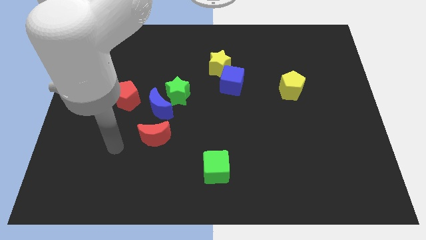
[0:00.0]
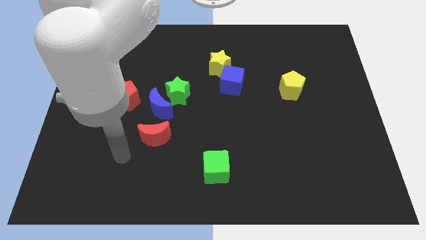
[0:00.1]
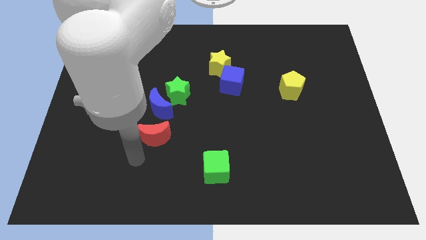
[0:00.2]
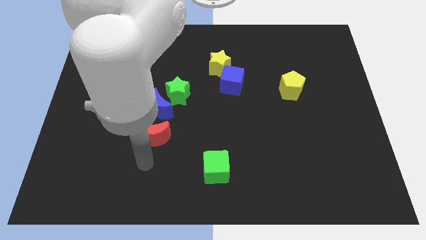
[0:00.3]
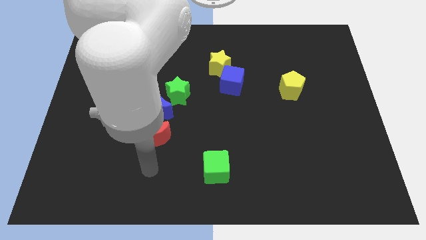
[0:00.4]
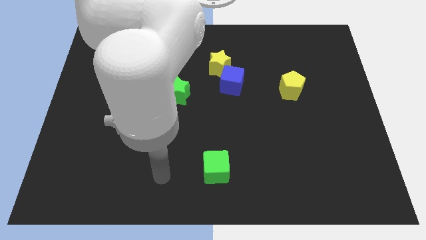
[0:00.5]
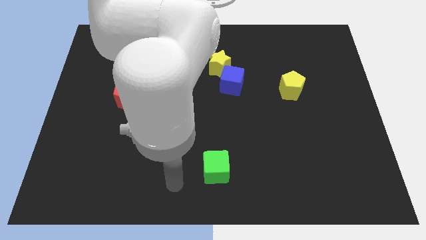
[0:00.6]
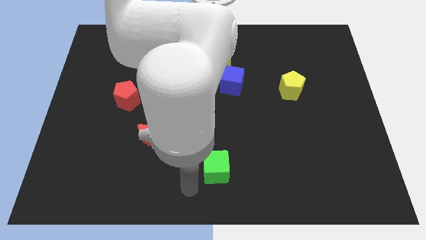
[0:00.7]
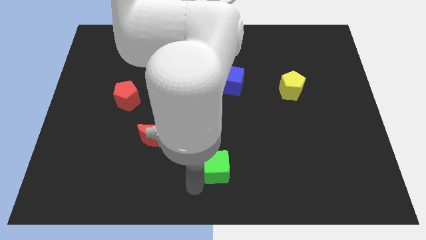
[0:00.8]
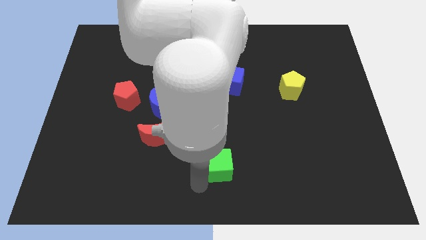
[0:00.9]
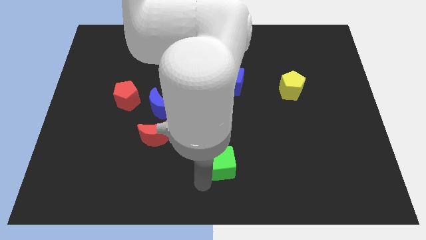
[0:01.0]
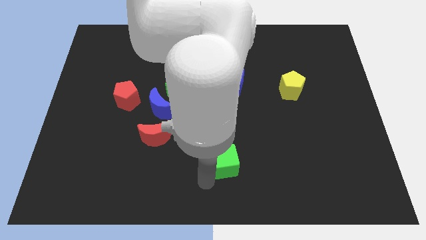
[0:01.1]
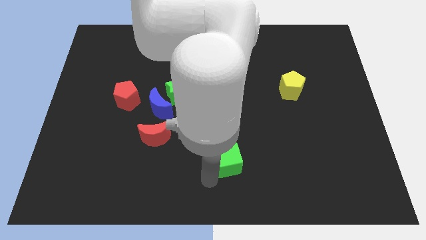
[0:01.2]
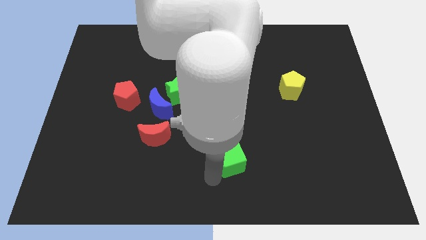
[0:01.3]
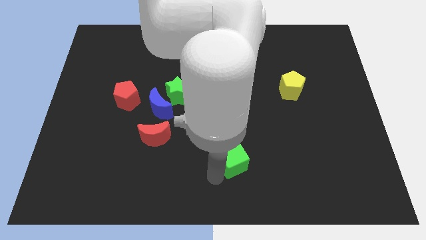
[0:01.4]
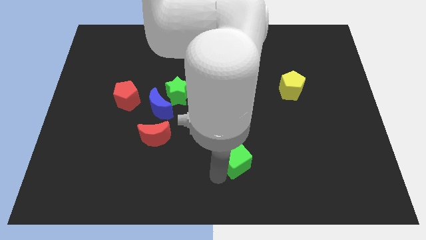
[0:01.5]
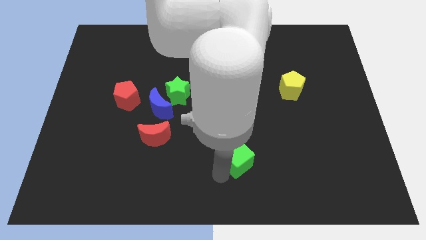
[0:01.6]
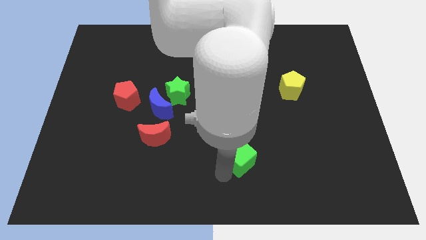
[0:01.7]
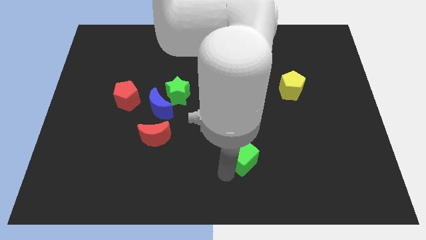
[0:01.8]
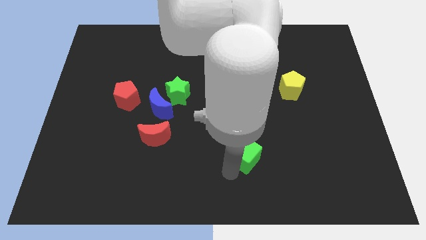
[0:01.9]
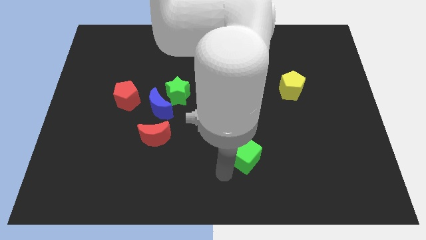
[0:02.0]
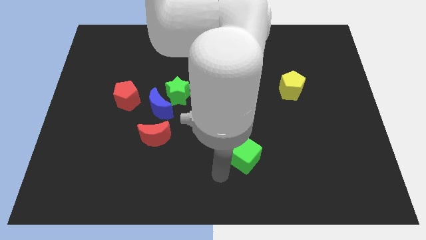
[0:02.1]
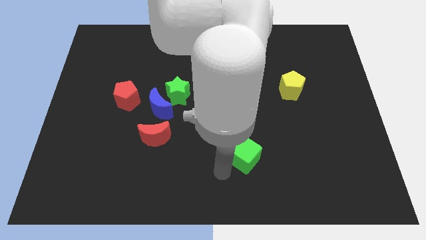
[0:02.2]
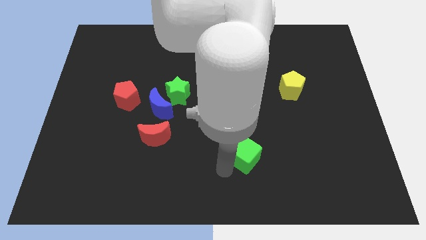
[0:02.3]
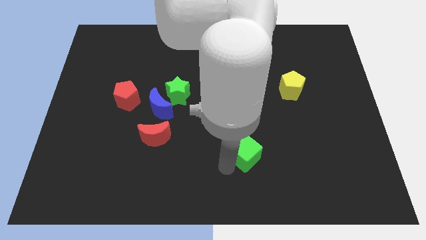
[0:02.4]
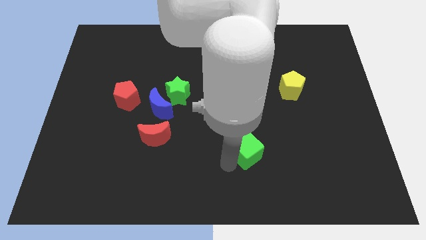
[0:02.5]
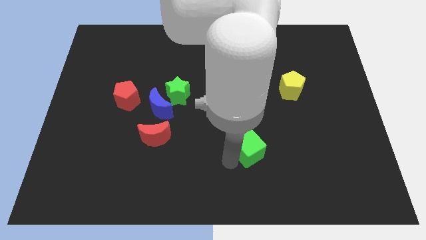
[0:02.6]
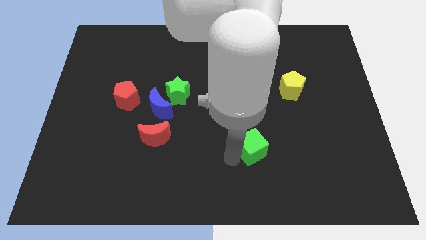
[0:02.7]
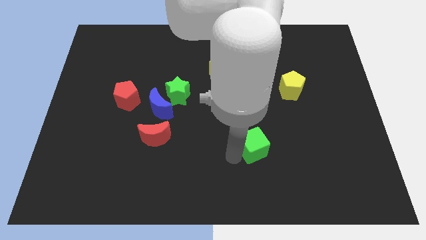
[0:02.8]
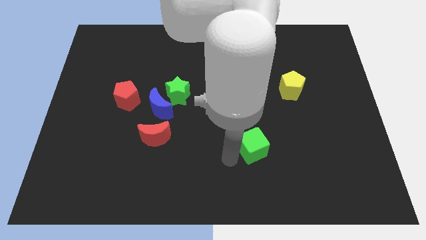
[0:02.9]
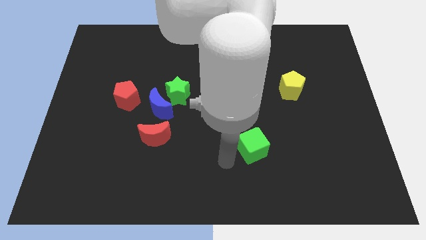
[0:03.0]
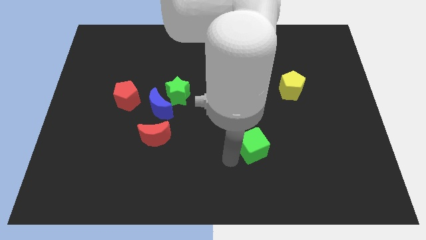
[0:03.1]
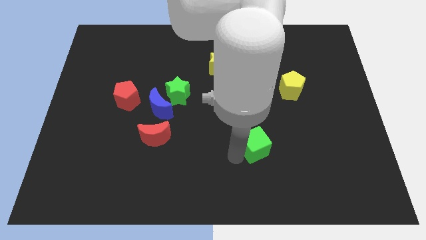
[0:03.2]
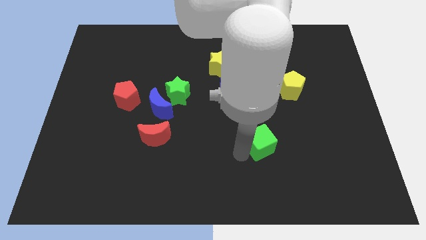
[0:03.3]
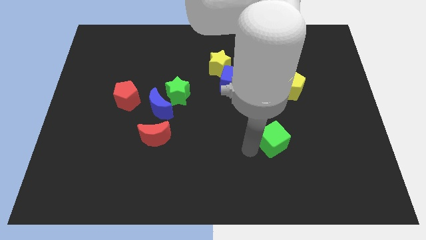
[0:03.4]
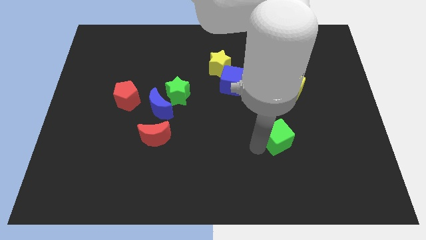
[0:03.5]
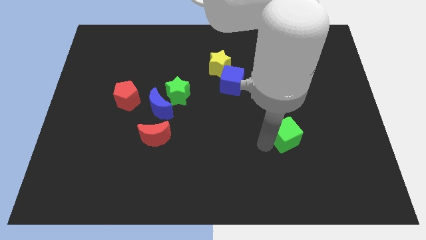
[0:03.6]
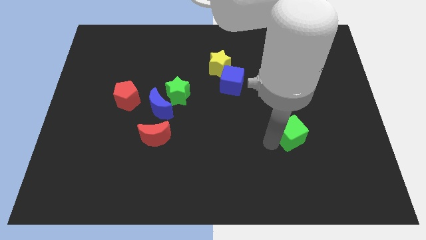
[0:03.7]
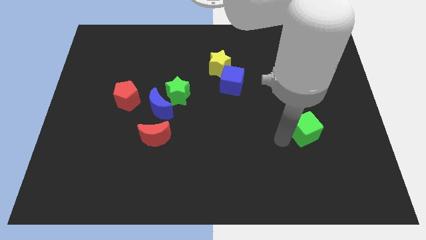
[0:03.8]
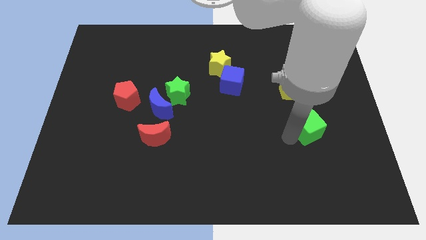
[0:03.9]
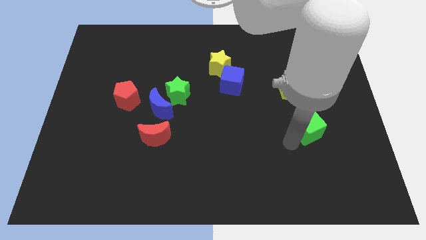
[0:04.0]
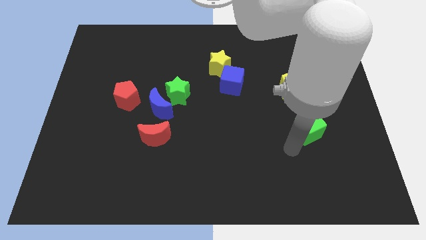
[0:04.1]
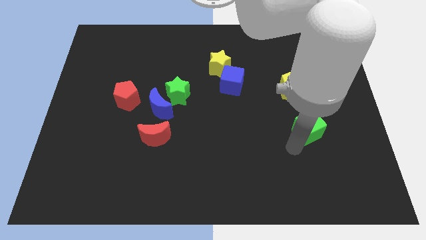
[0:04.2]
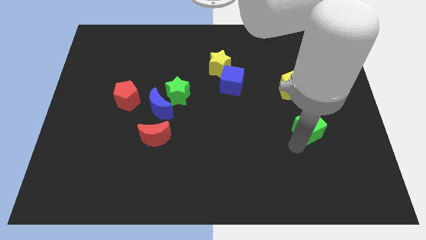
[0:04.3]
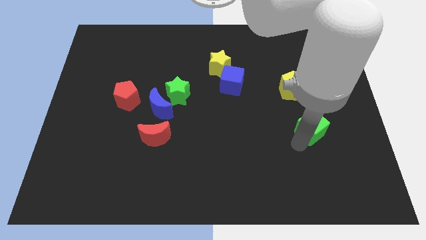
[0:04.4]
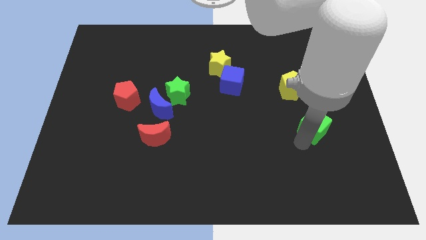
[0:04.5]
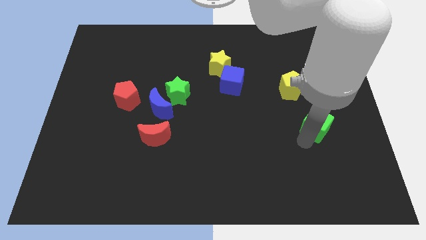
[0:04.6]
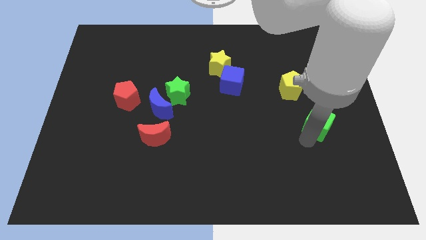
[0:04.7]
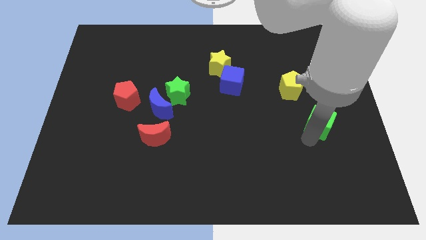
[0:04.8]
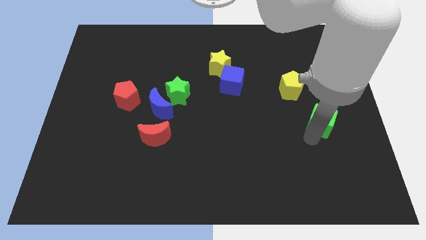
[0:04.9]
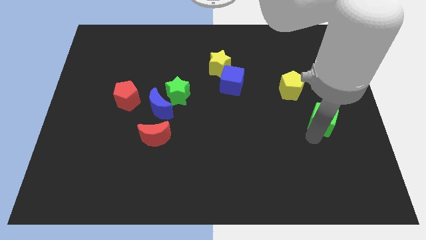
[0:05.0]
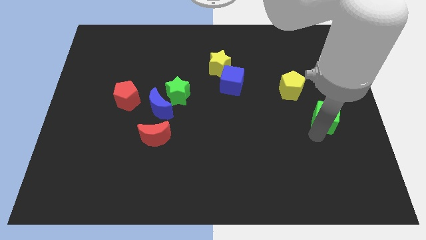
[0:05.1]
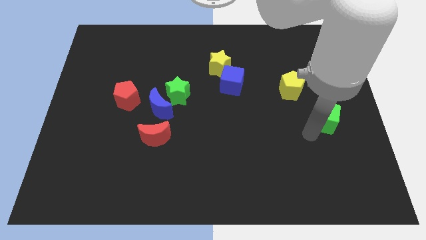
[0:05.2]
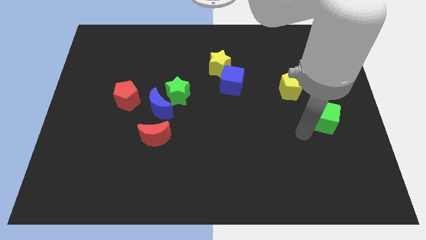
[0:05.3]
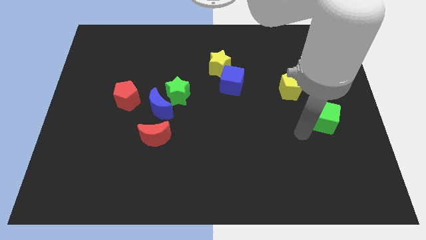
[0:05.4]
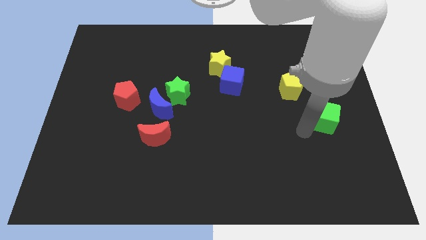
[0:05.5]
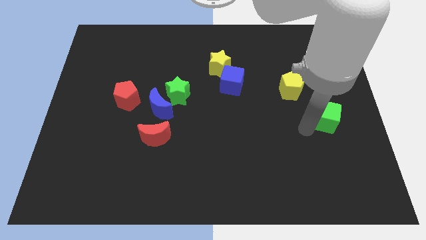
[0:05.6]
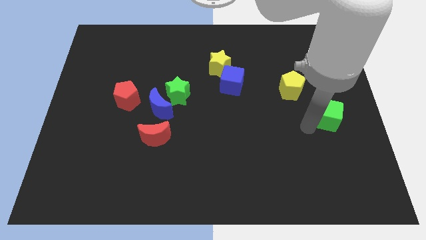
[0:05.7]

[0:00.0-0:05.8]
put the green cube to the right side
